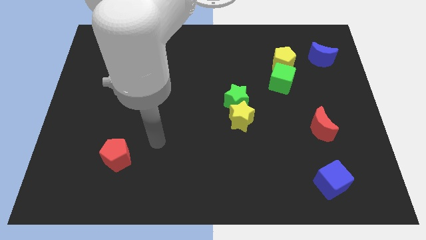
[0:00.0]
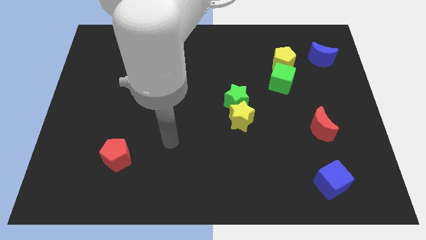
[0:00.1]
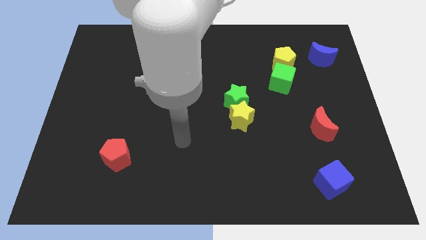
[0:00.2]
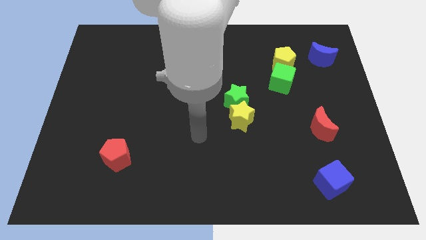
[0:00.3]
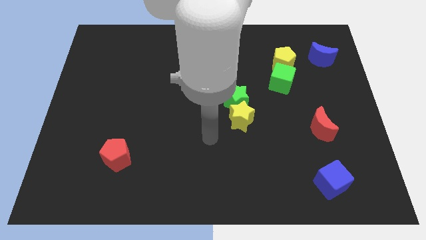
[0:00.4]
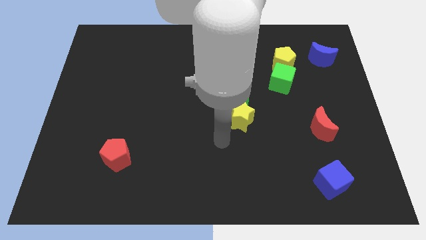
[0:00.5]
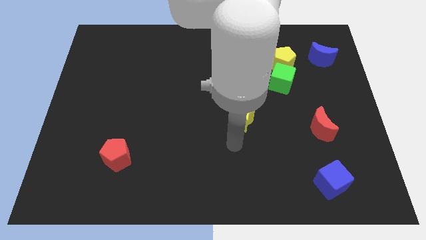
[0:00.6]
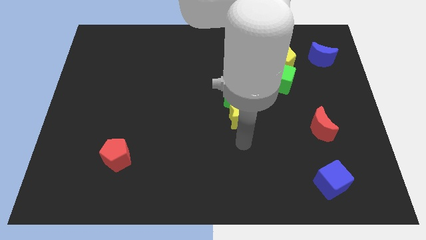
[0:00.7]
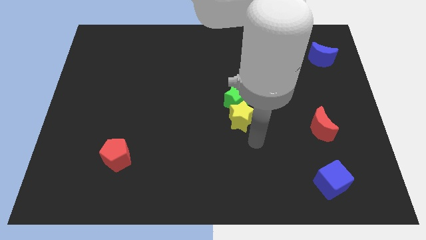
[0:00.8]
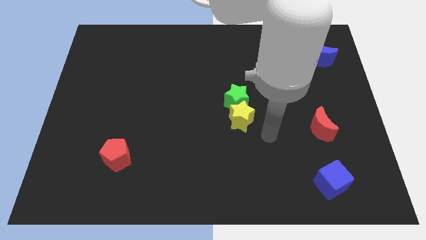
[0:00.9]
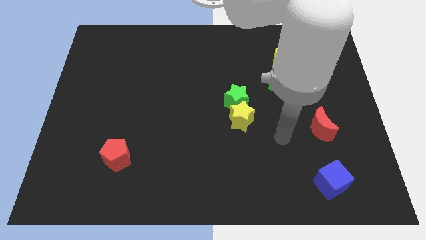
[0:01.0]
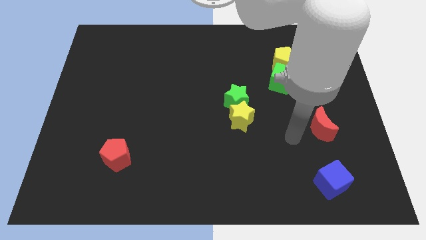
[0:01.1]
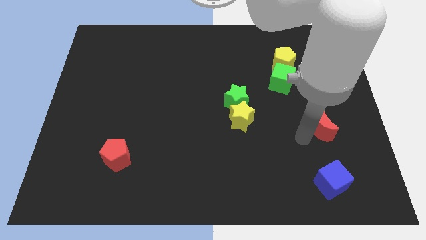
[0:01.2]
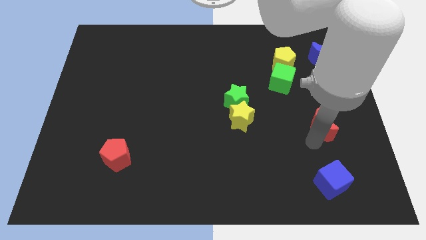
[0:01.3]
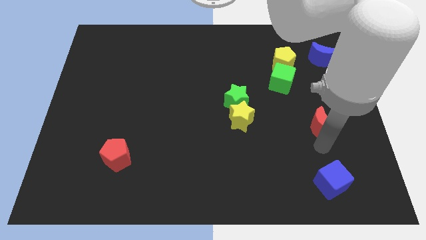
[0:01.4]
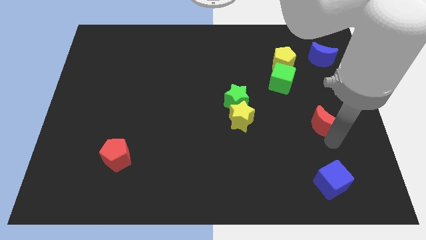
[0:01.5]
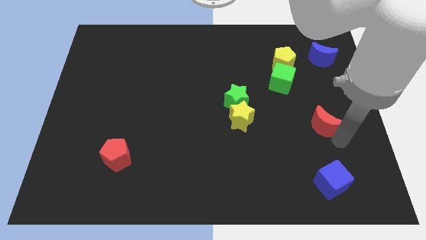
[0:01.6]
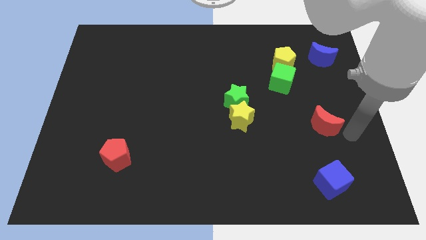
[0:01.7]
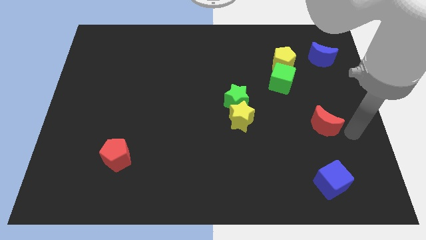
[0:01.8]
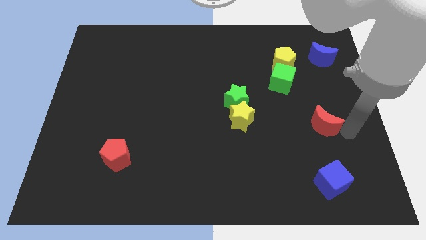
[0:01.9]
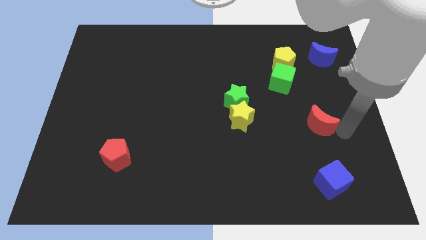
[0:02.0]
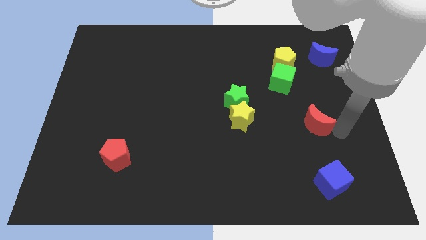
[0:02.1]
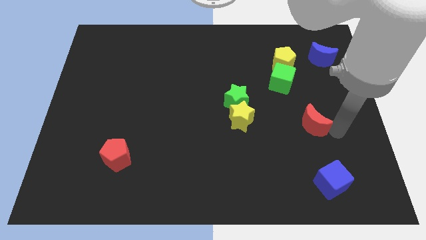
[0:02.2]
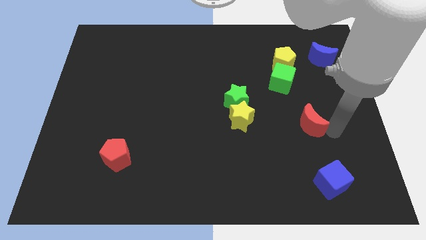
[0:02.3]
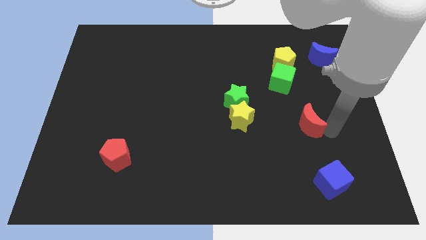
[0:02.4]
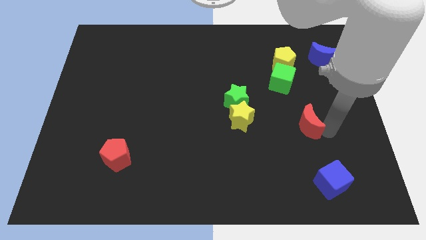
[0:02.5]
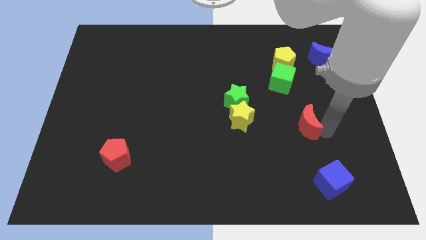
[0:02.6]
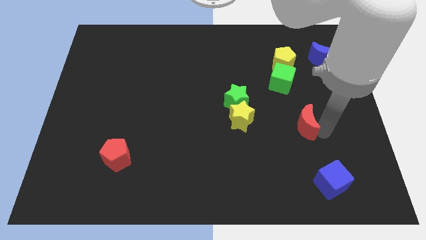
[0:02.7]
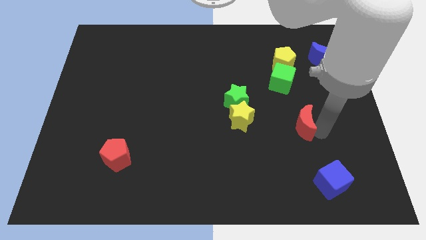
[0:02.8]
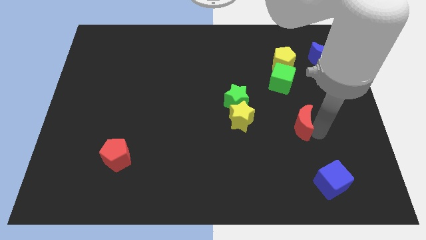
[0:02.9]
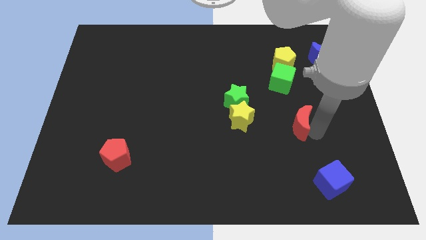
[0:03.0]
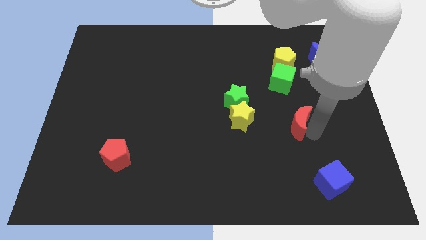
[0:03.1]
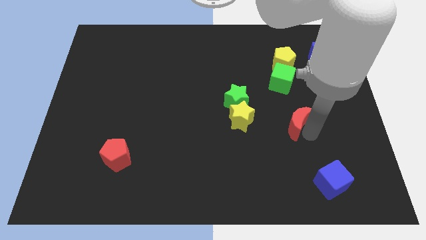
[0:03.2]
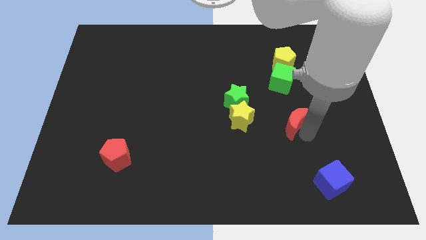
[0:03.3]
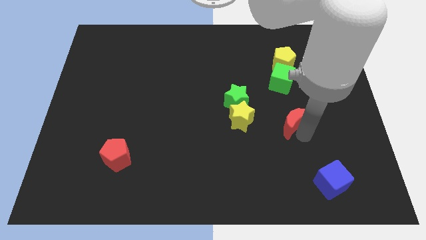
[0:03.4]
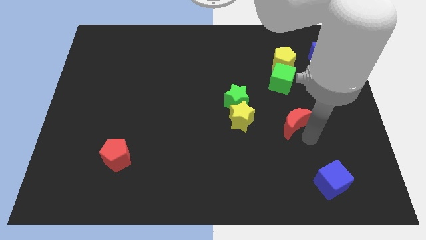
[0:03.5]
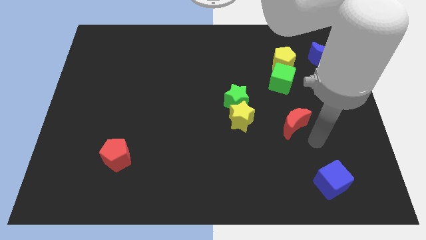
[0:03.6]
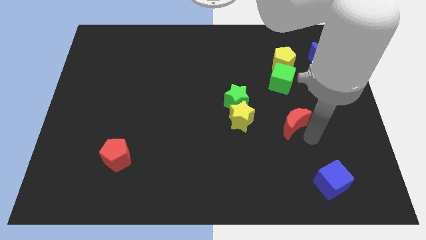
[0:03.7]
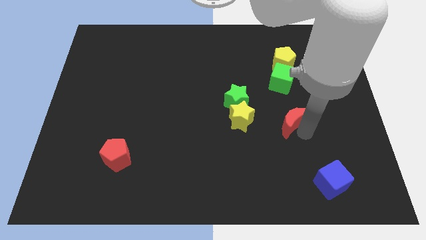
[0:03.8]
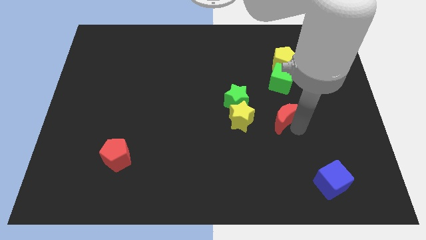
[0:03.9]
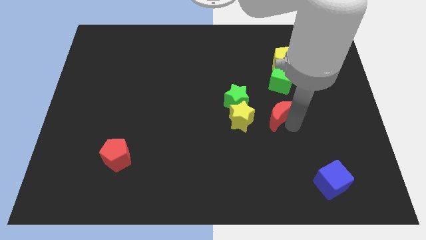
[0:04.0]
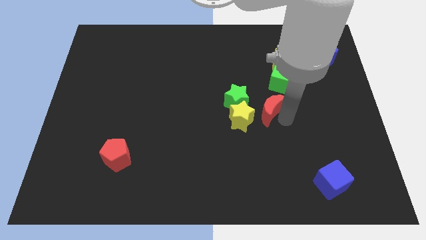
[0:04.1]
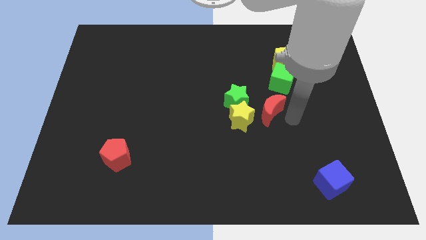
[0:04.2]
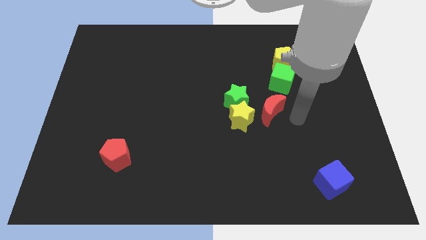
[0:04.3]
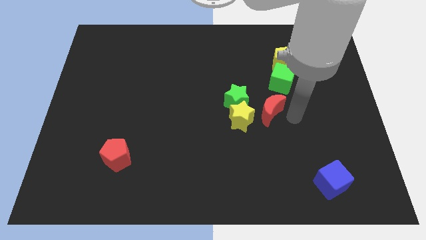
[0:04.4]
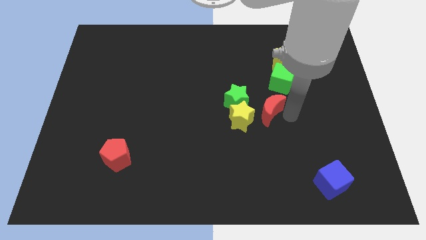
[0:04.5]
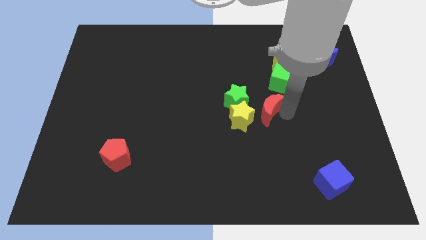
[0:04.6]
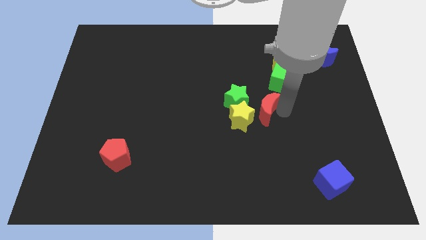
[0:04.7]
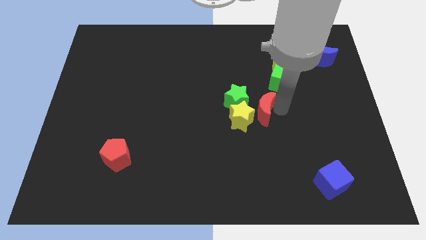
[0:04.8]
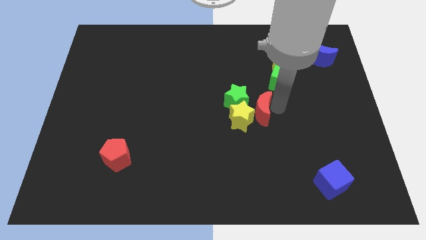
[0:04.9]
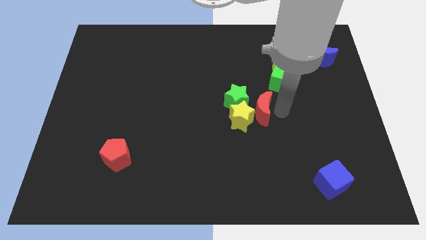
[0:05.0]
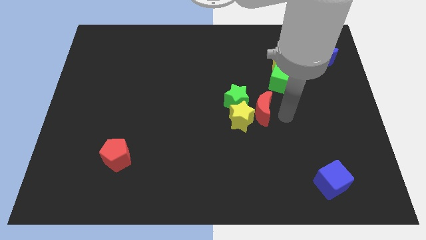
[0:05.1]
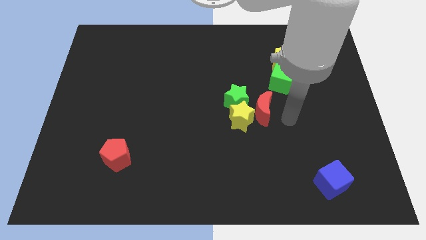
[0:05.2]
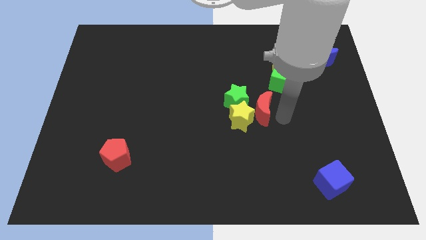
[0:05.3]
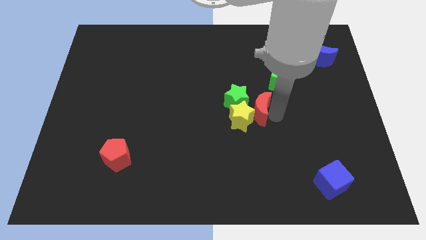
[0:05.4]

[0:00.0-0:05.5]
put the red moon to the green star

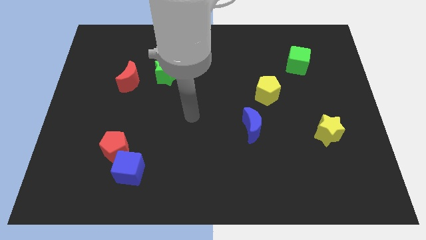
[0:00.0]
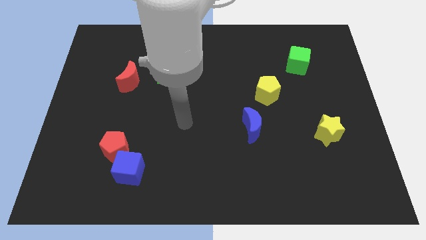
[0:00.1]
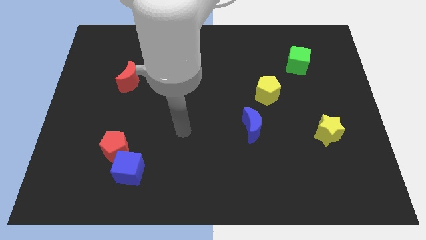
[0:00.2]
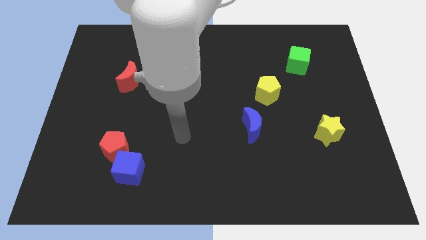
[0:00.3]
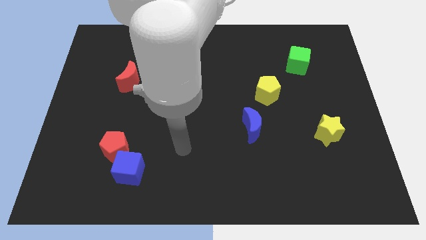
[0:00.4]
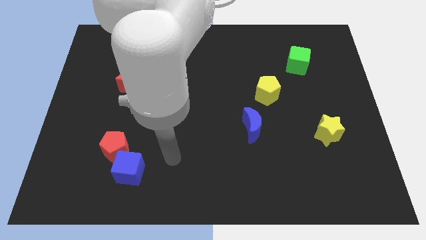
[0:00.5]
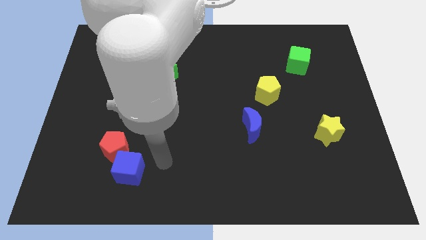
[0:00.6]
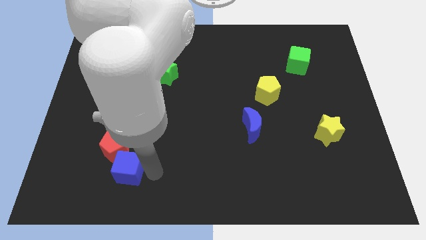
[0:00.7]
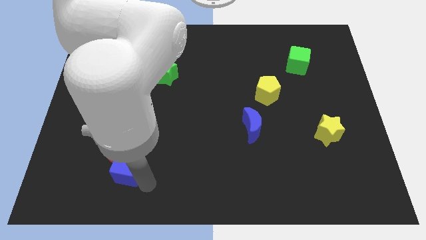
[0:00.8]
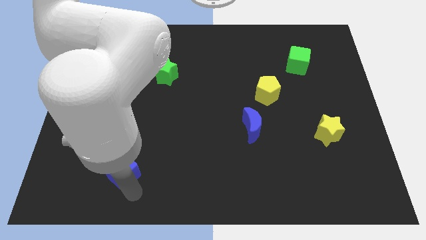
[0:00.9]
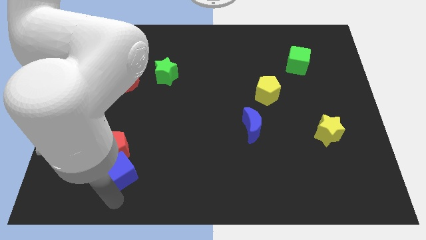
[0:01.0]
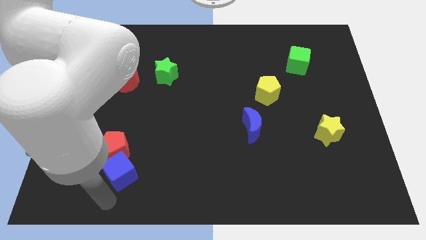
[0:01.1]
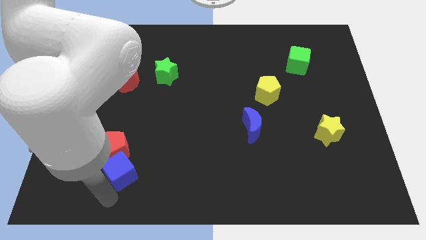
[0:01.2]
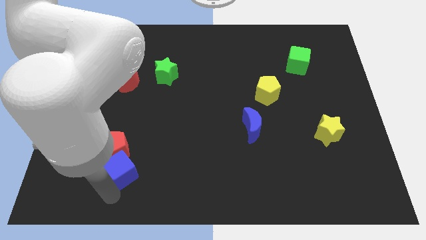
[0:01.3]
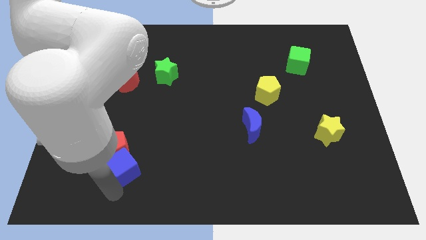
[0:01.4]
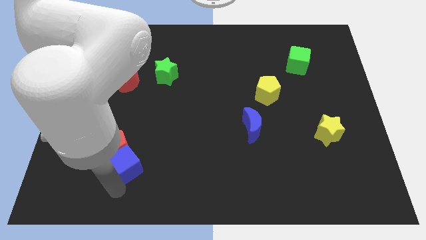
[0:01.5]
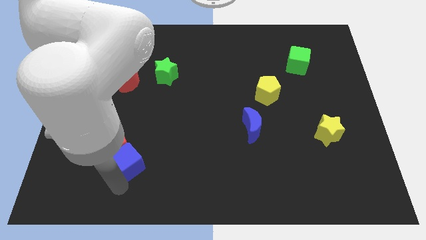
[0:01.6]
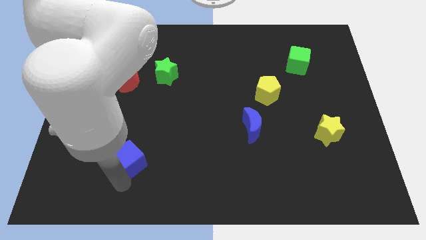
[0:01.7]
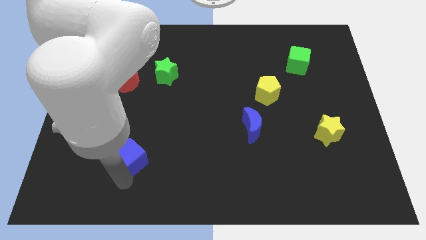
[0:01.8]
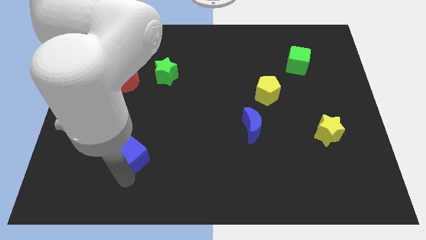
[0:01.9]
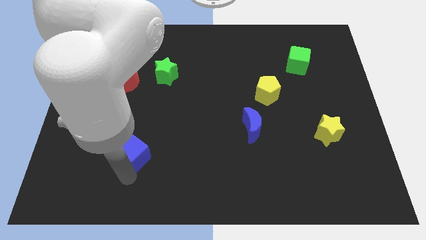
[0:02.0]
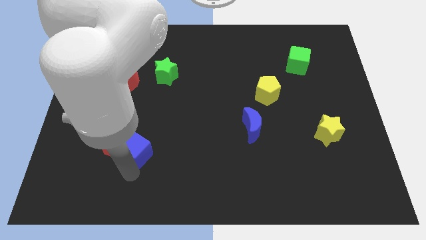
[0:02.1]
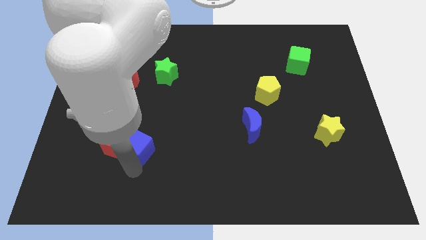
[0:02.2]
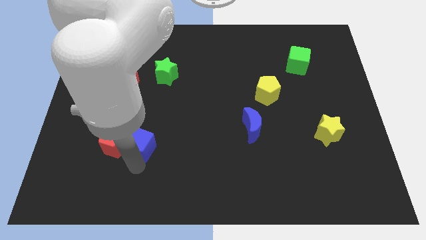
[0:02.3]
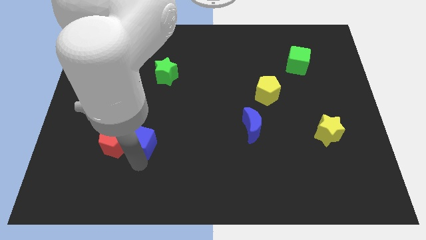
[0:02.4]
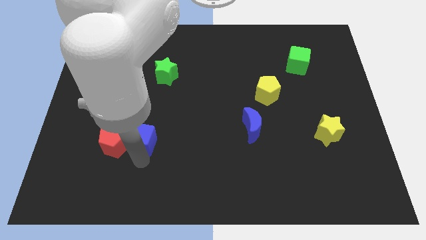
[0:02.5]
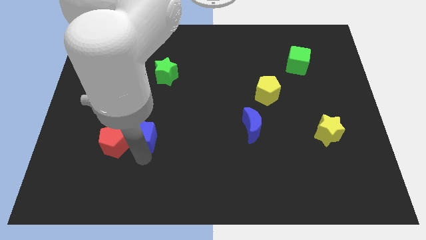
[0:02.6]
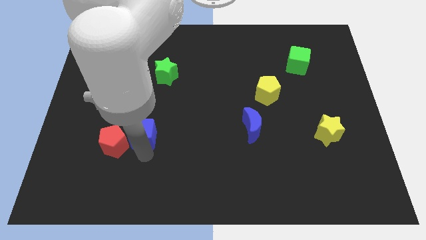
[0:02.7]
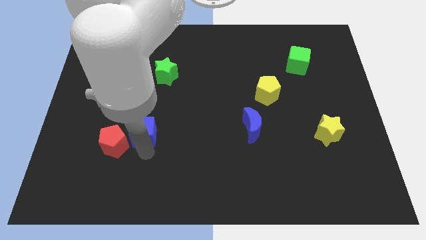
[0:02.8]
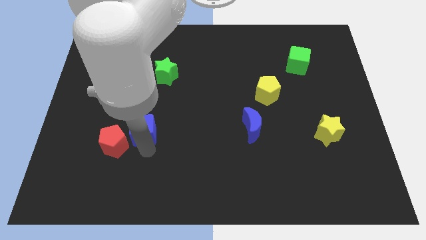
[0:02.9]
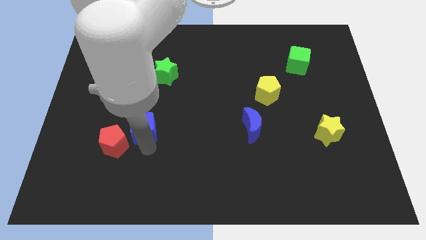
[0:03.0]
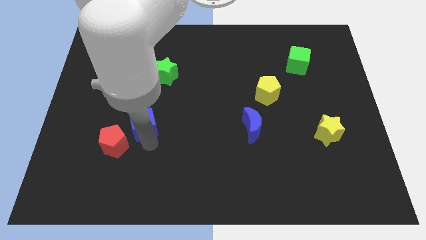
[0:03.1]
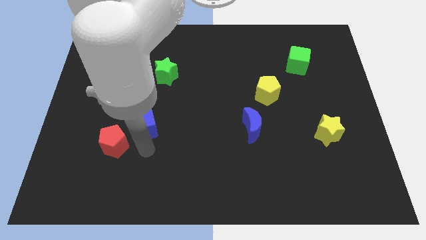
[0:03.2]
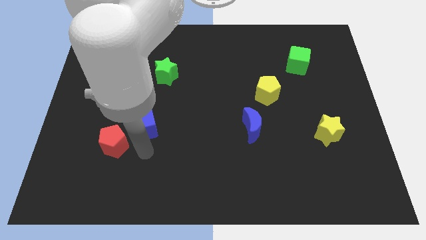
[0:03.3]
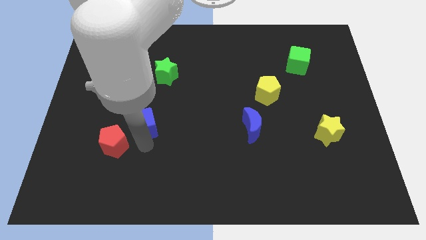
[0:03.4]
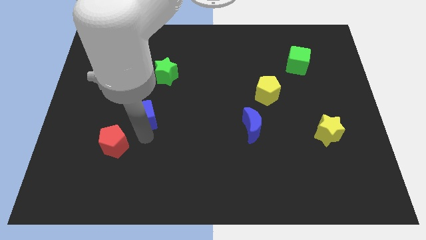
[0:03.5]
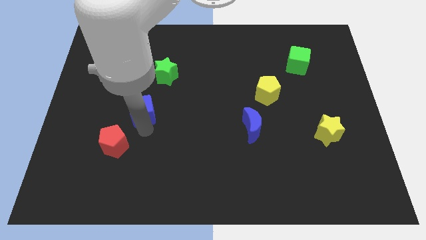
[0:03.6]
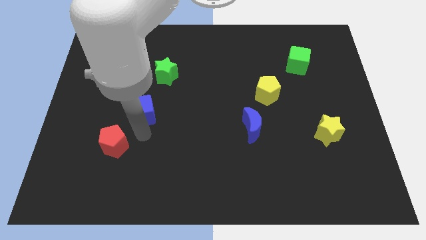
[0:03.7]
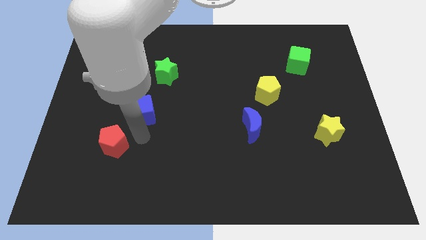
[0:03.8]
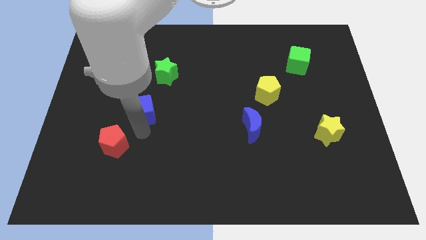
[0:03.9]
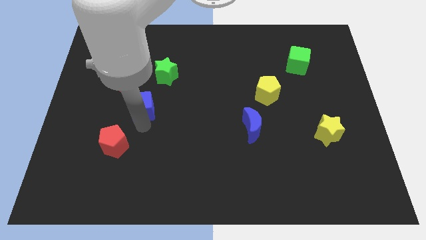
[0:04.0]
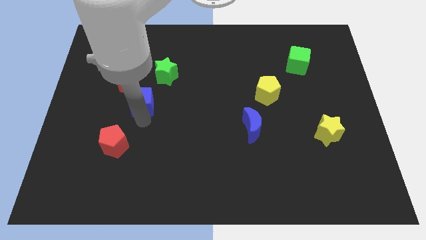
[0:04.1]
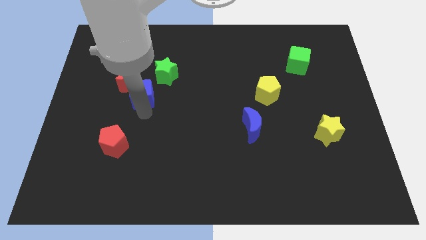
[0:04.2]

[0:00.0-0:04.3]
slide the blue cube towards the red moon
